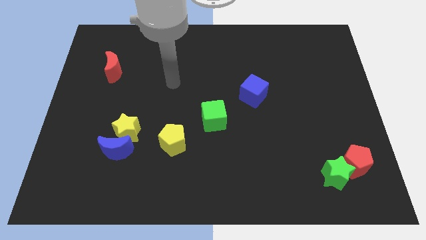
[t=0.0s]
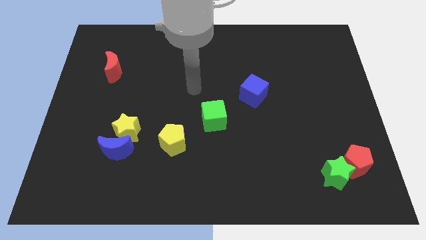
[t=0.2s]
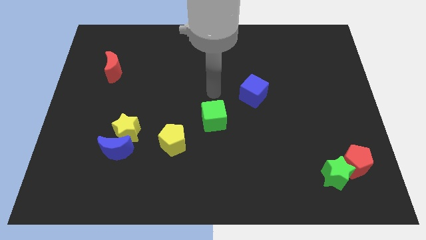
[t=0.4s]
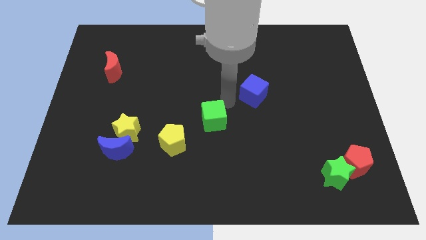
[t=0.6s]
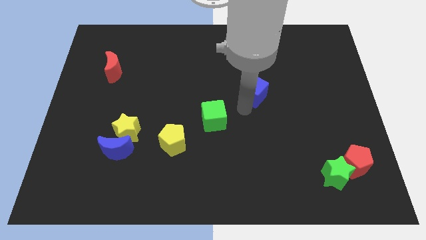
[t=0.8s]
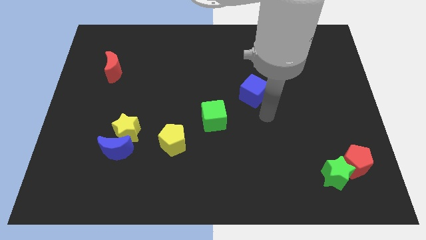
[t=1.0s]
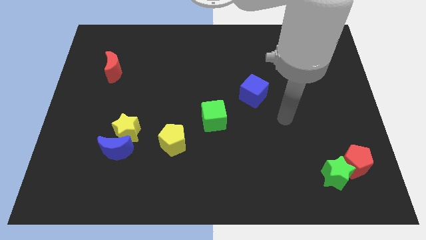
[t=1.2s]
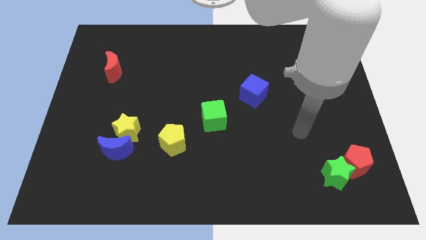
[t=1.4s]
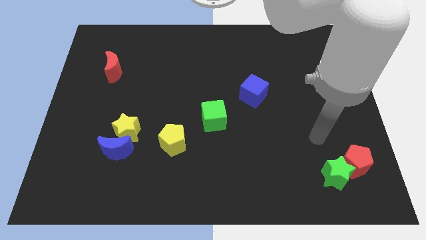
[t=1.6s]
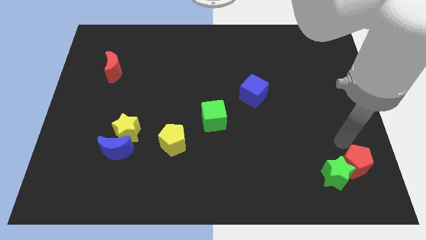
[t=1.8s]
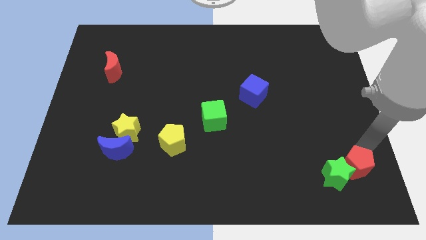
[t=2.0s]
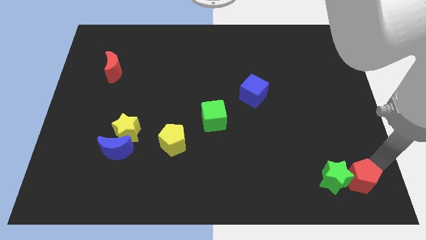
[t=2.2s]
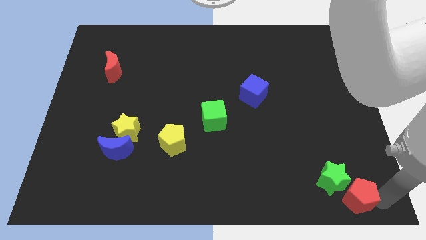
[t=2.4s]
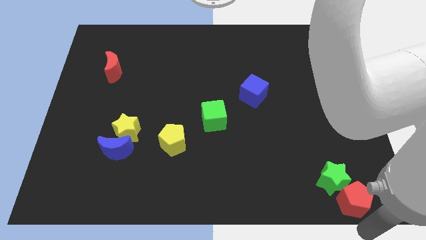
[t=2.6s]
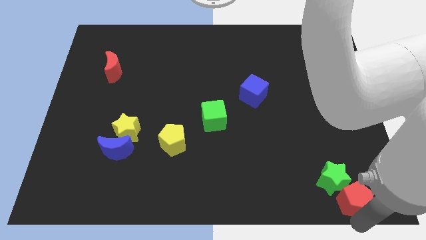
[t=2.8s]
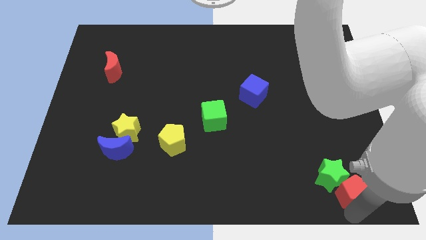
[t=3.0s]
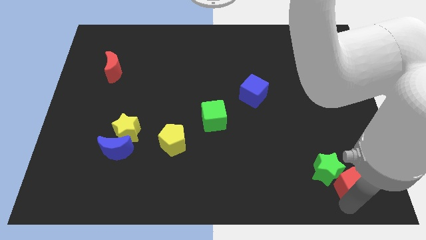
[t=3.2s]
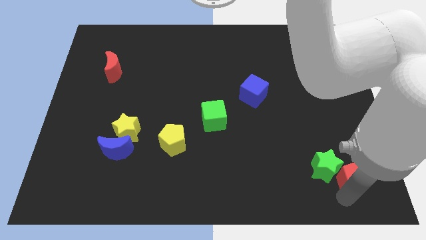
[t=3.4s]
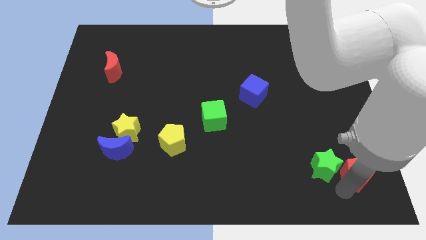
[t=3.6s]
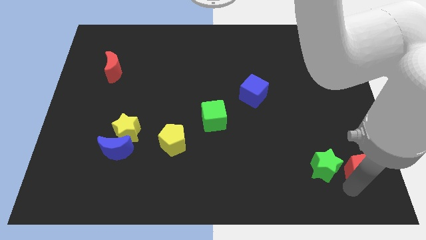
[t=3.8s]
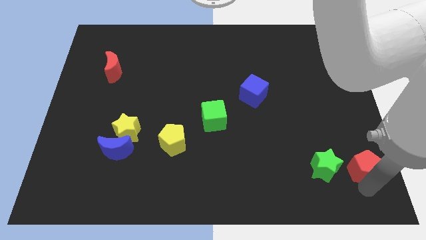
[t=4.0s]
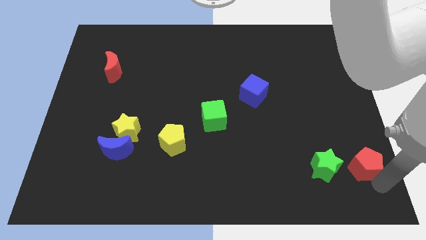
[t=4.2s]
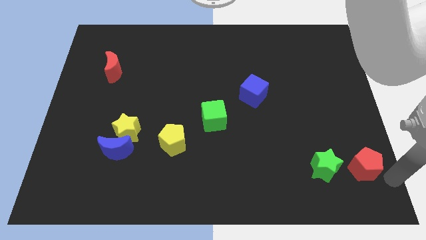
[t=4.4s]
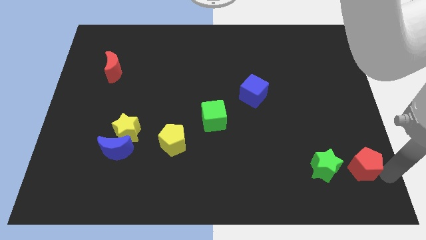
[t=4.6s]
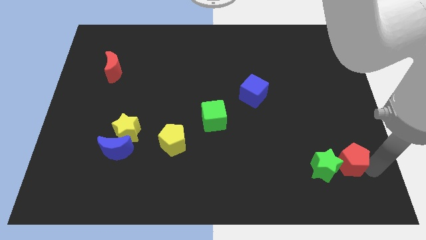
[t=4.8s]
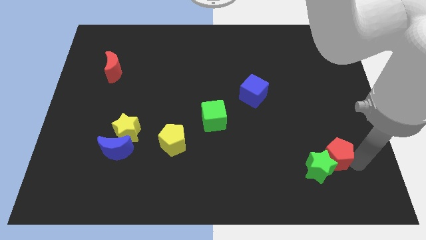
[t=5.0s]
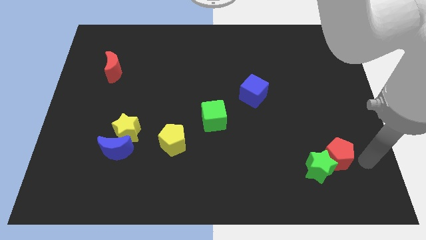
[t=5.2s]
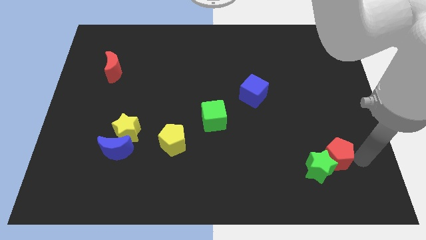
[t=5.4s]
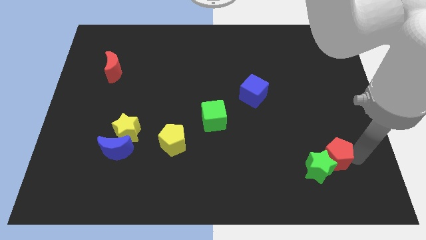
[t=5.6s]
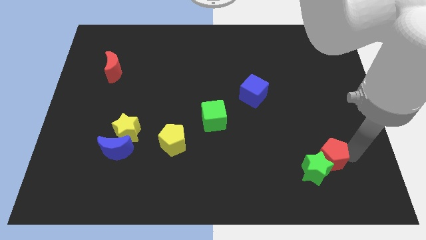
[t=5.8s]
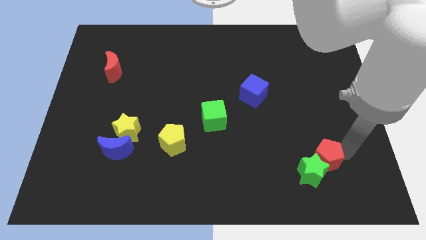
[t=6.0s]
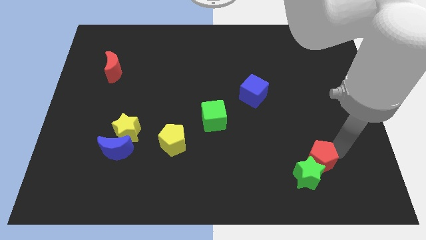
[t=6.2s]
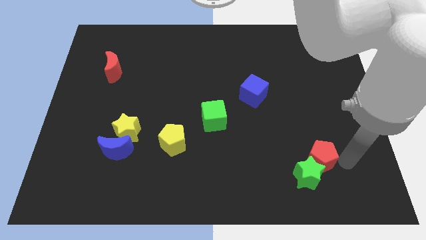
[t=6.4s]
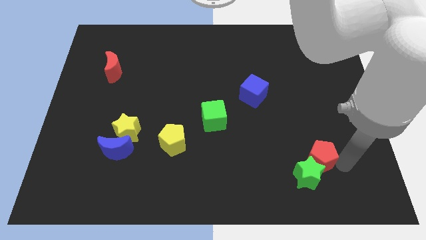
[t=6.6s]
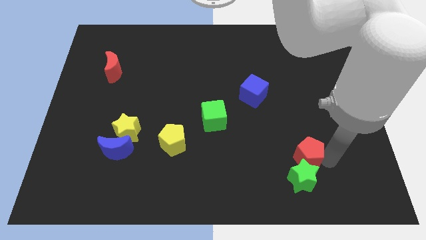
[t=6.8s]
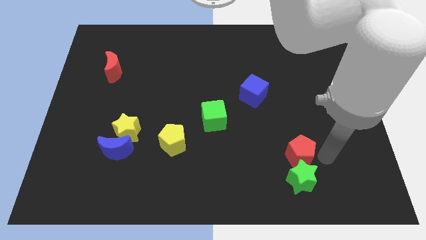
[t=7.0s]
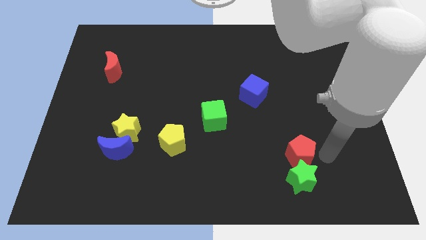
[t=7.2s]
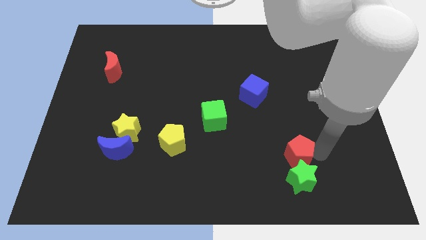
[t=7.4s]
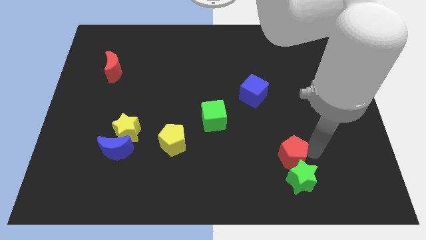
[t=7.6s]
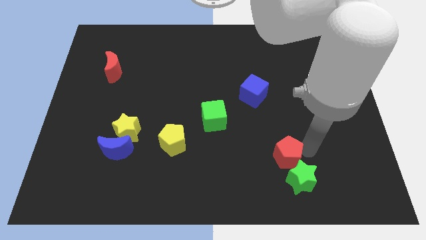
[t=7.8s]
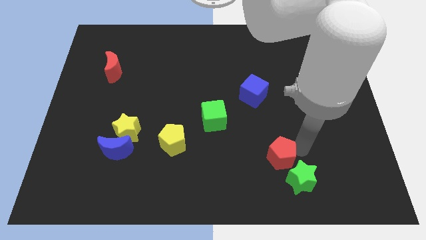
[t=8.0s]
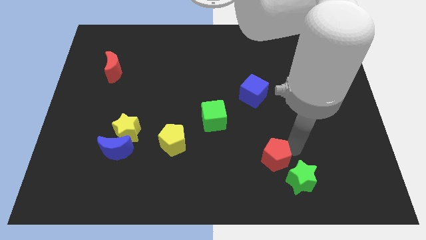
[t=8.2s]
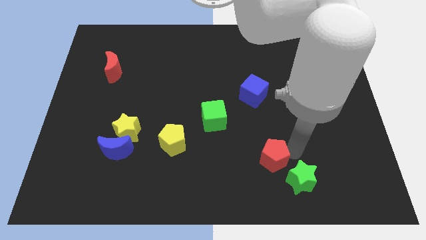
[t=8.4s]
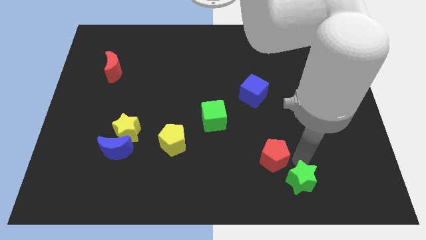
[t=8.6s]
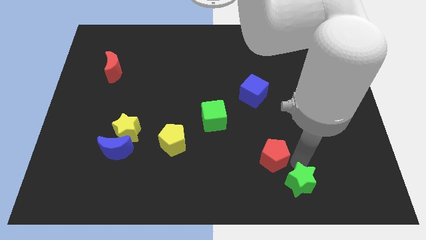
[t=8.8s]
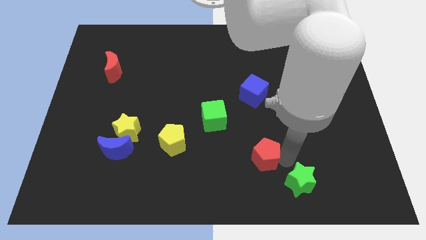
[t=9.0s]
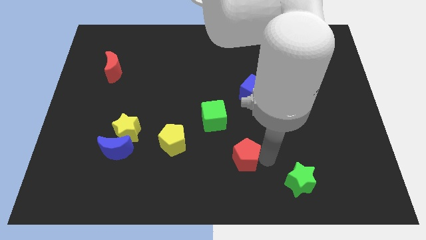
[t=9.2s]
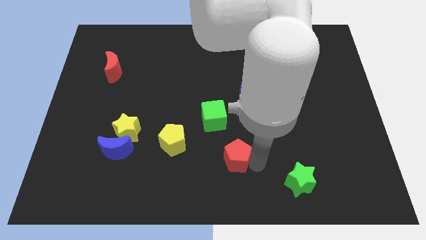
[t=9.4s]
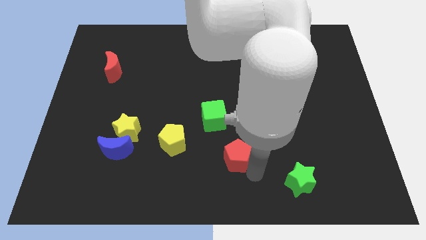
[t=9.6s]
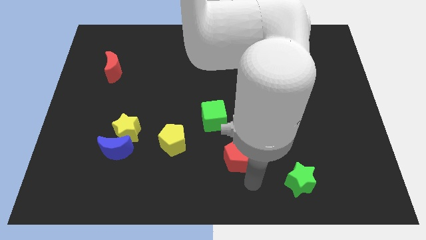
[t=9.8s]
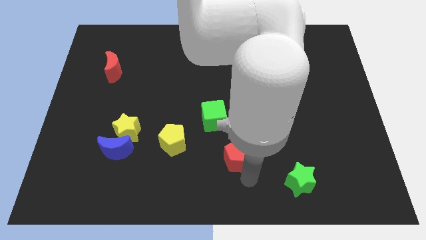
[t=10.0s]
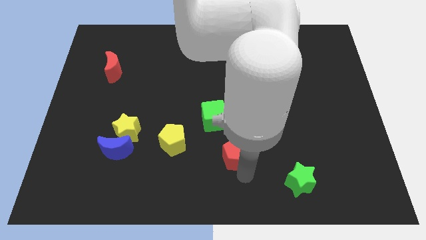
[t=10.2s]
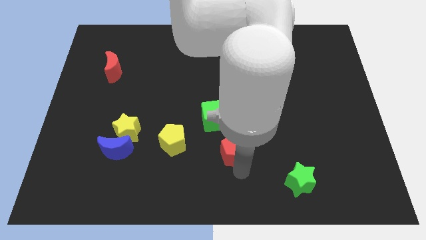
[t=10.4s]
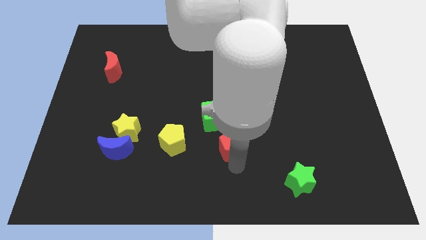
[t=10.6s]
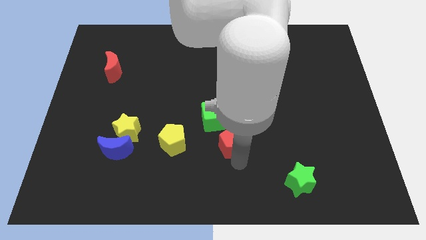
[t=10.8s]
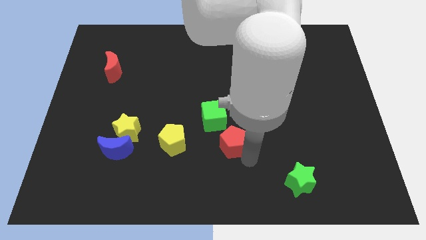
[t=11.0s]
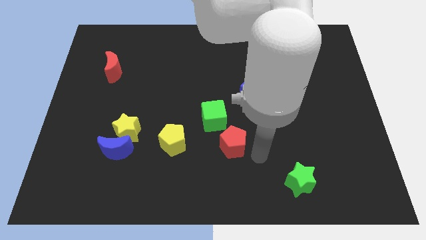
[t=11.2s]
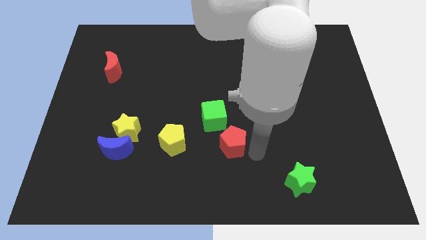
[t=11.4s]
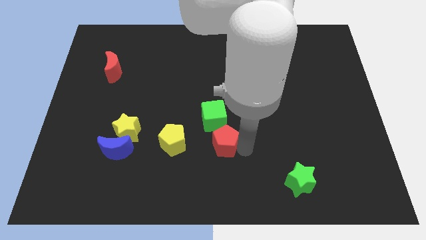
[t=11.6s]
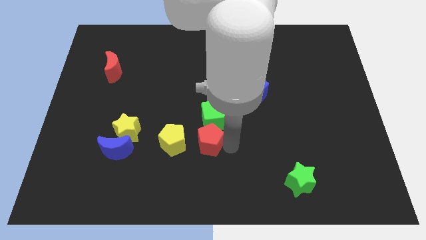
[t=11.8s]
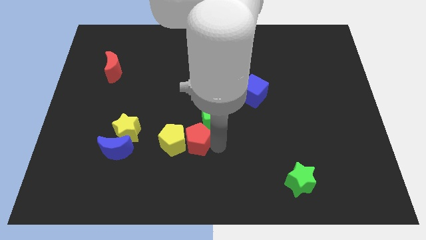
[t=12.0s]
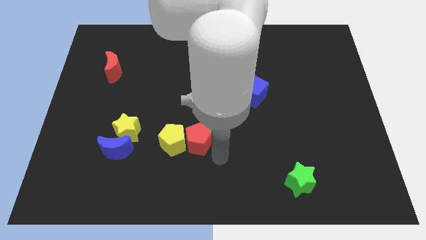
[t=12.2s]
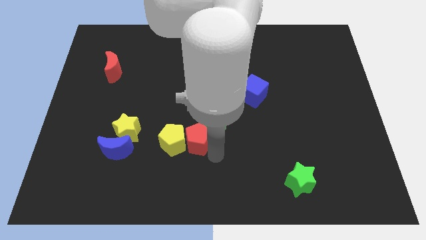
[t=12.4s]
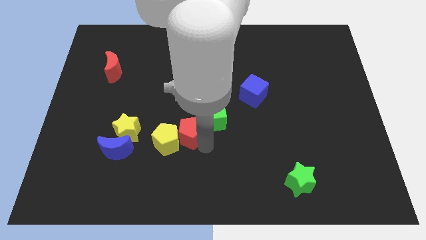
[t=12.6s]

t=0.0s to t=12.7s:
slide the red pentagon just left of the green cube

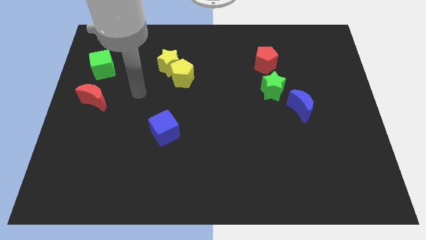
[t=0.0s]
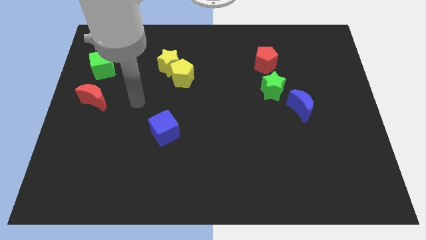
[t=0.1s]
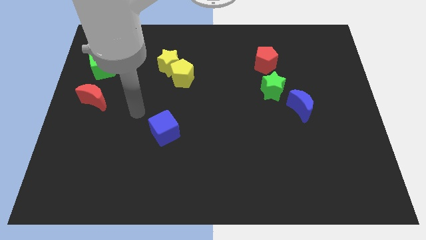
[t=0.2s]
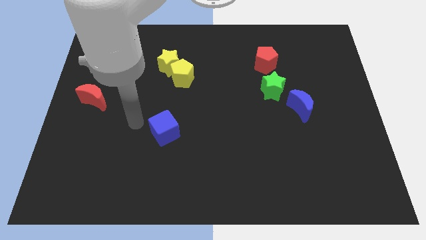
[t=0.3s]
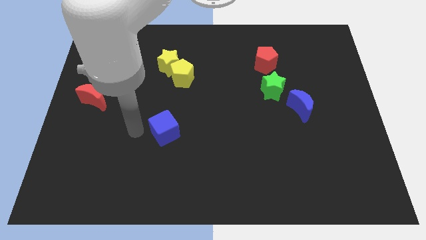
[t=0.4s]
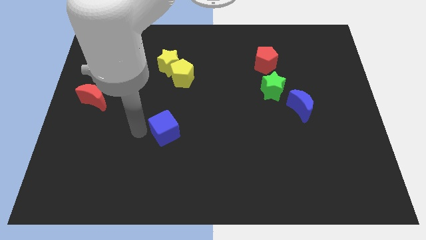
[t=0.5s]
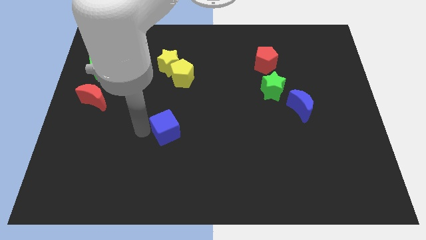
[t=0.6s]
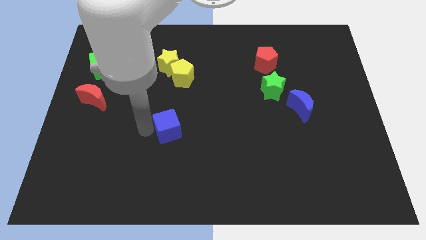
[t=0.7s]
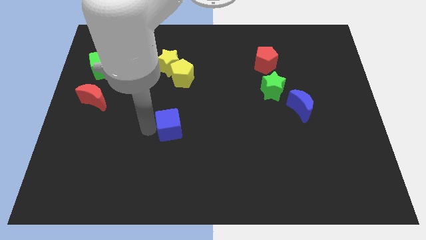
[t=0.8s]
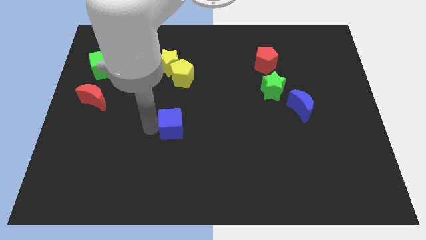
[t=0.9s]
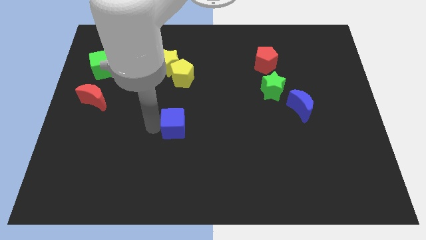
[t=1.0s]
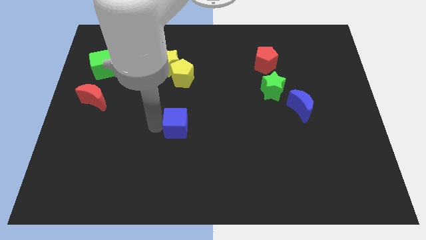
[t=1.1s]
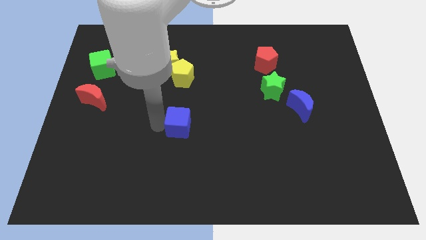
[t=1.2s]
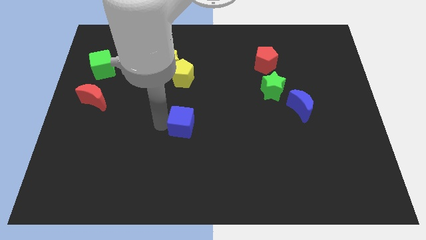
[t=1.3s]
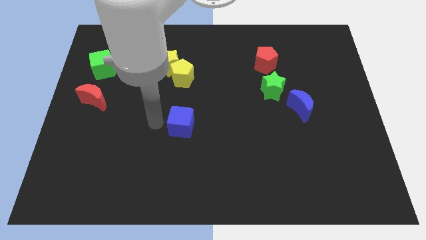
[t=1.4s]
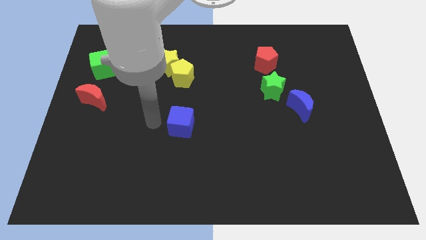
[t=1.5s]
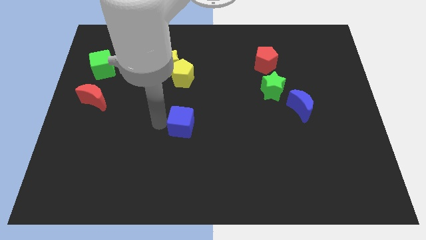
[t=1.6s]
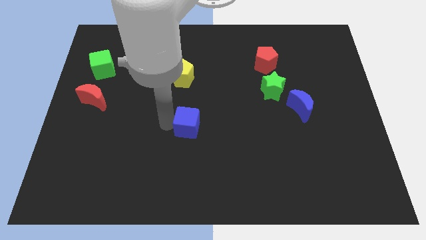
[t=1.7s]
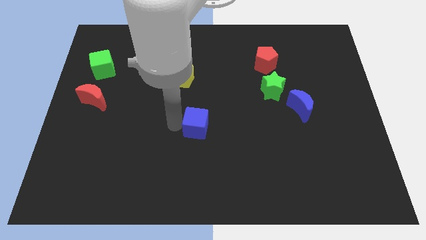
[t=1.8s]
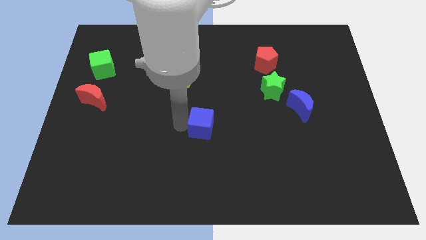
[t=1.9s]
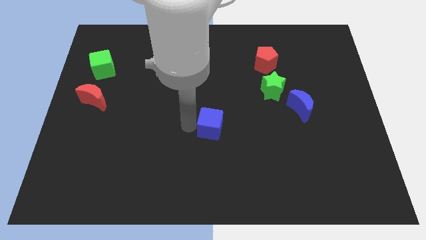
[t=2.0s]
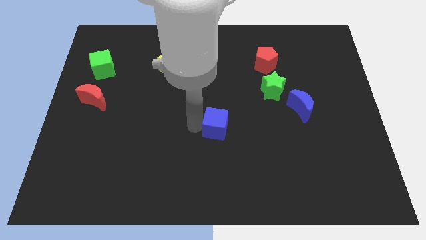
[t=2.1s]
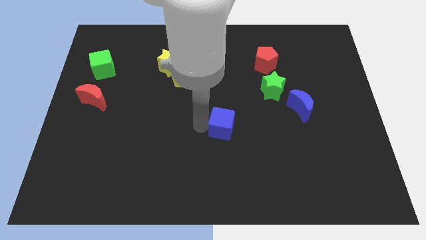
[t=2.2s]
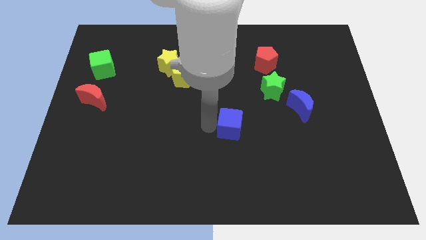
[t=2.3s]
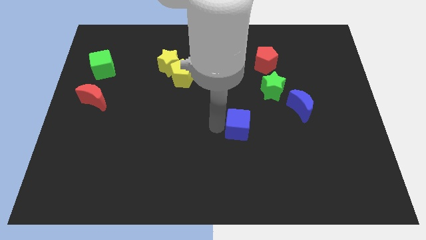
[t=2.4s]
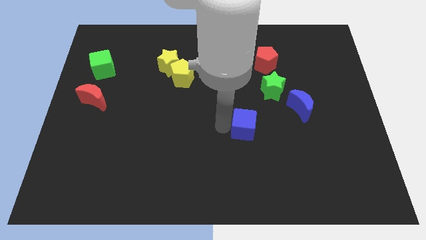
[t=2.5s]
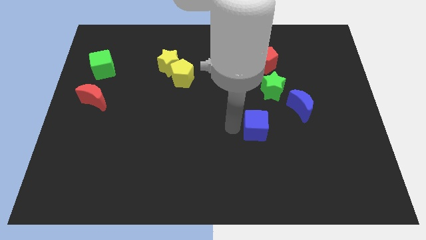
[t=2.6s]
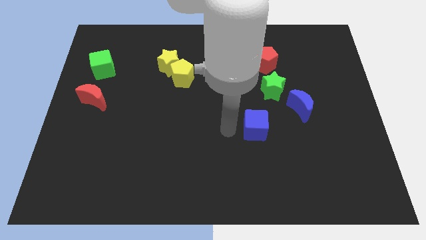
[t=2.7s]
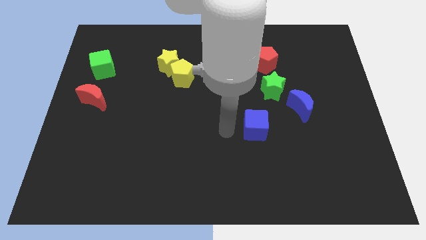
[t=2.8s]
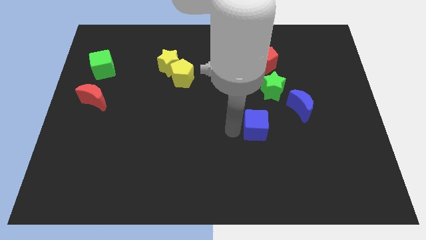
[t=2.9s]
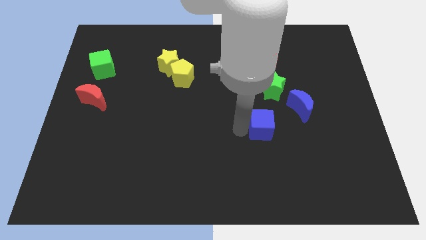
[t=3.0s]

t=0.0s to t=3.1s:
slide the blue cube diagonally down and to the left of the blue moon
